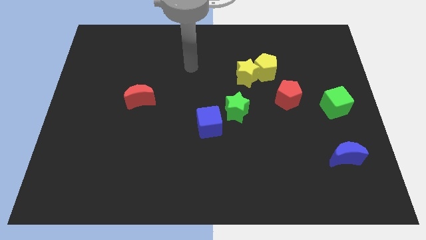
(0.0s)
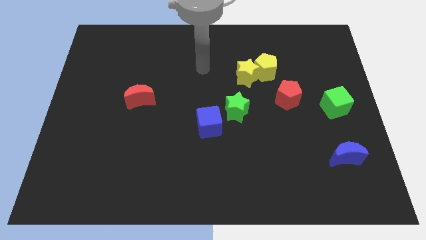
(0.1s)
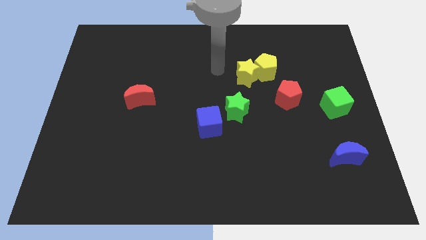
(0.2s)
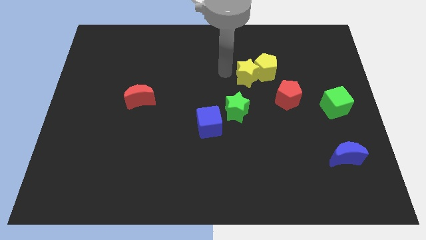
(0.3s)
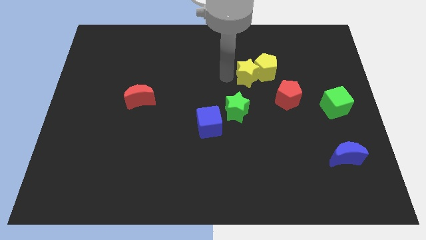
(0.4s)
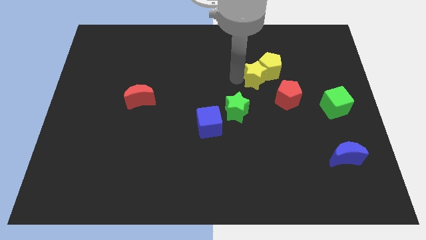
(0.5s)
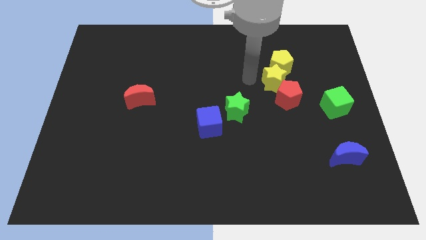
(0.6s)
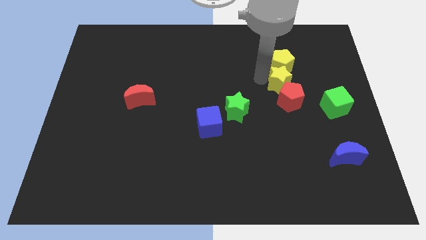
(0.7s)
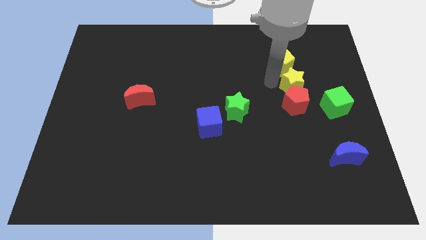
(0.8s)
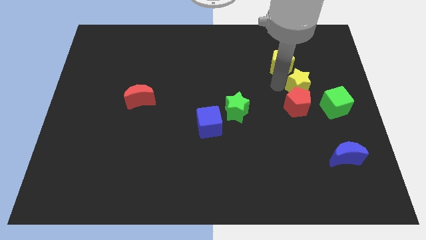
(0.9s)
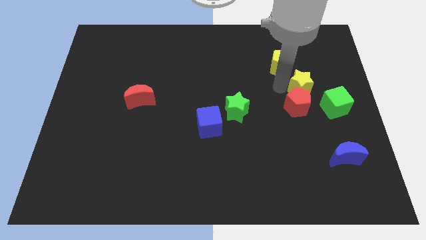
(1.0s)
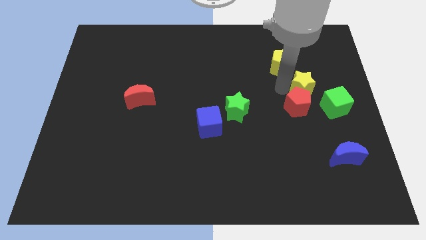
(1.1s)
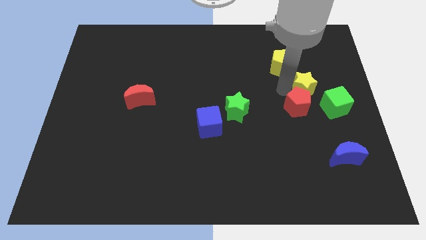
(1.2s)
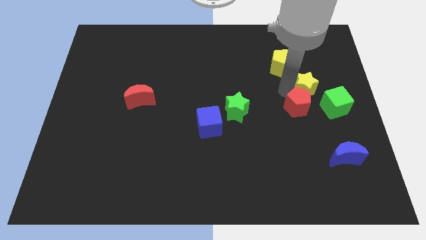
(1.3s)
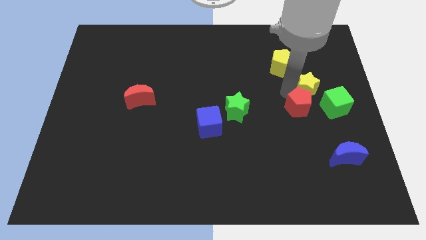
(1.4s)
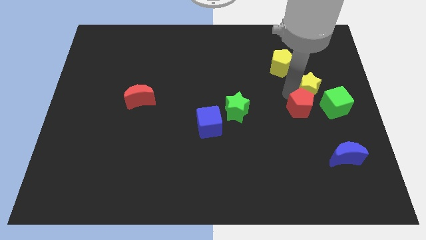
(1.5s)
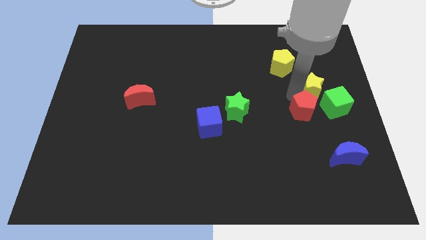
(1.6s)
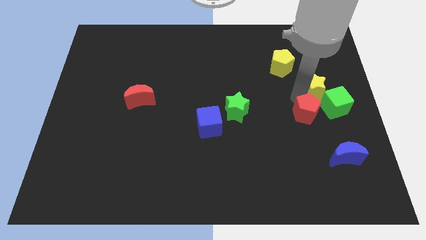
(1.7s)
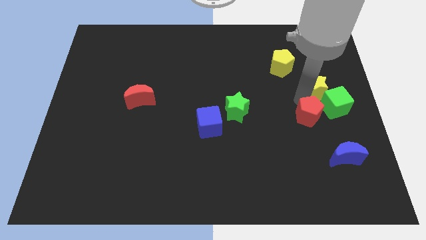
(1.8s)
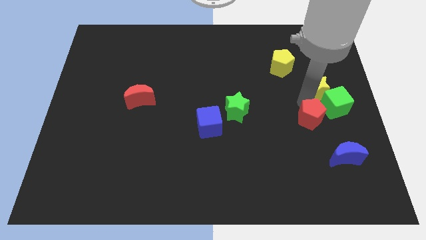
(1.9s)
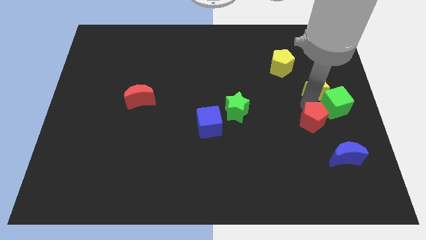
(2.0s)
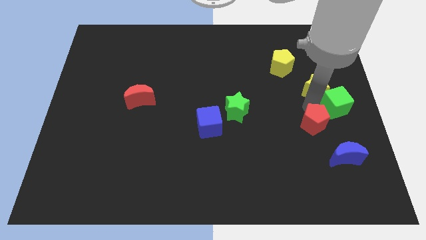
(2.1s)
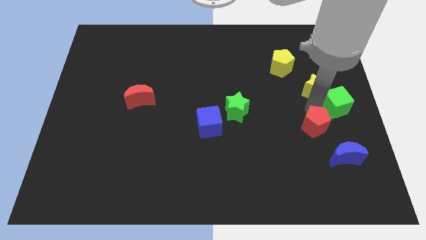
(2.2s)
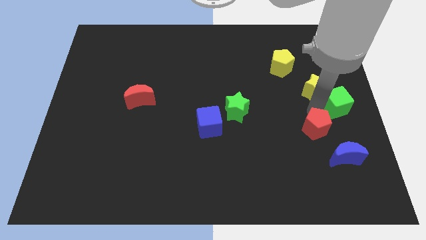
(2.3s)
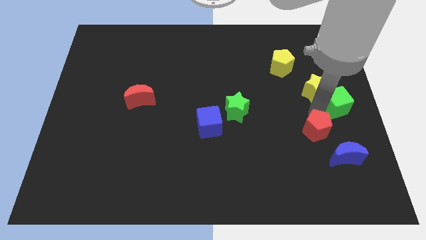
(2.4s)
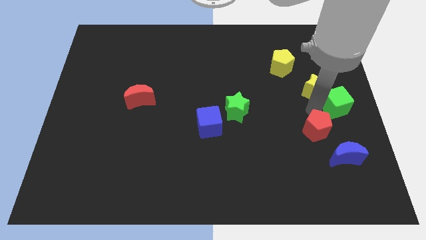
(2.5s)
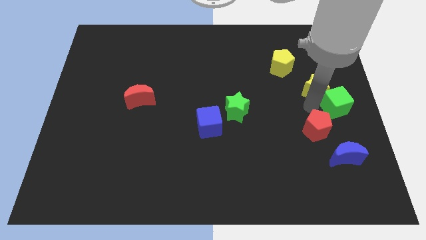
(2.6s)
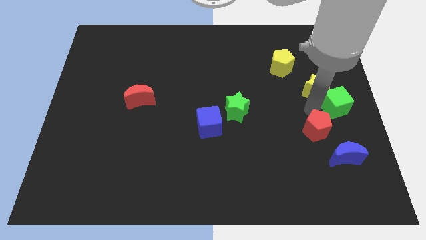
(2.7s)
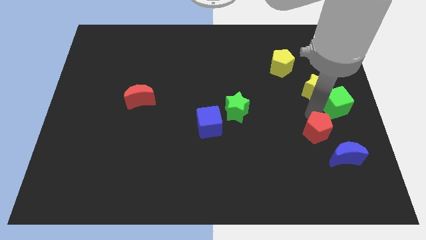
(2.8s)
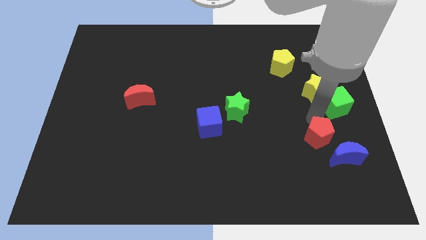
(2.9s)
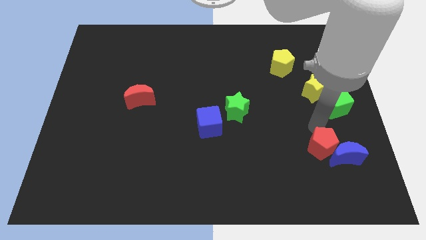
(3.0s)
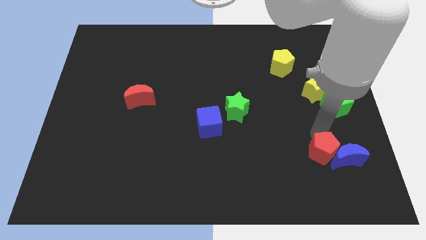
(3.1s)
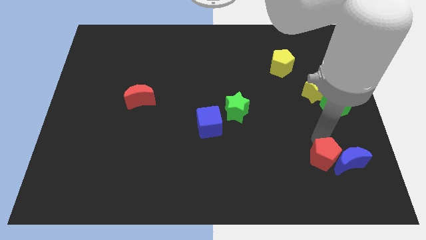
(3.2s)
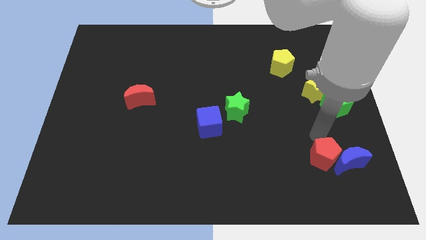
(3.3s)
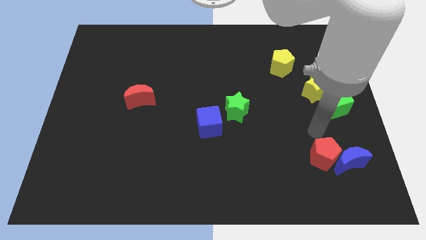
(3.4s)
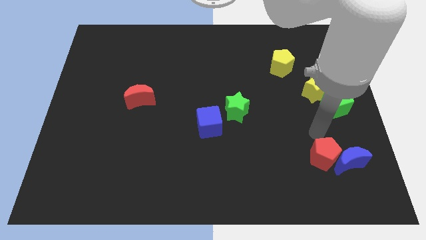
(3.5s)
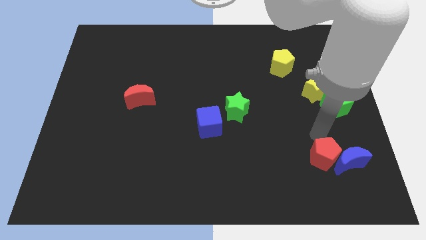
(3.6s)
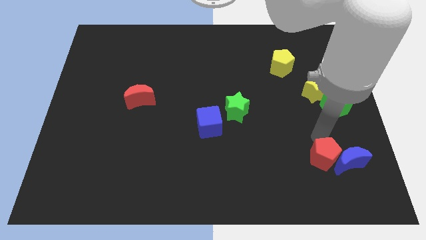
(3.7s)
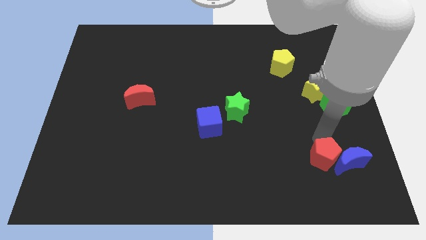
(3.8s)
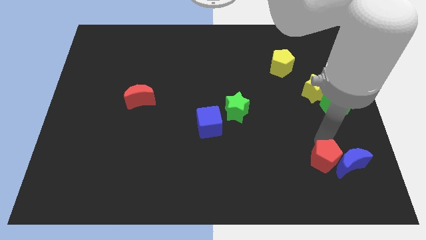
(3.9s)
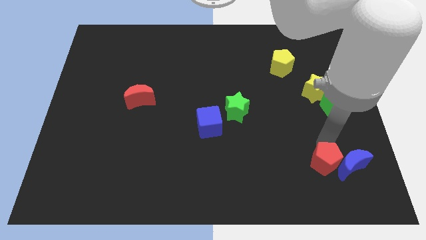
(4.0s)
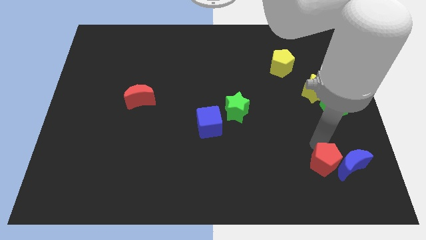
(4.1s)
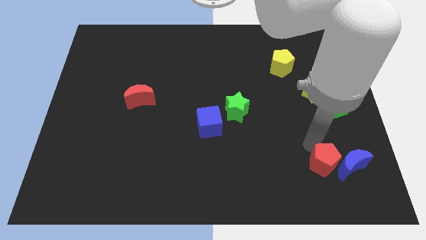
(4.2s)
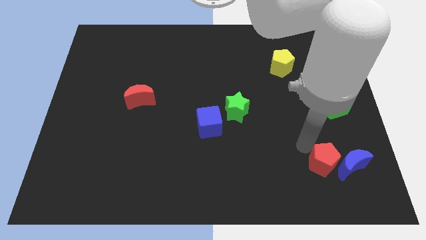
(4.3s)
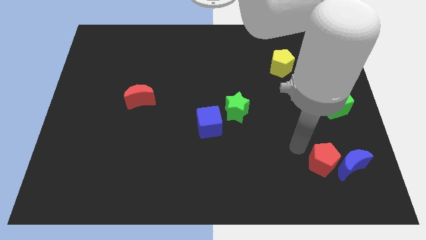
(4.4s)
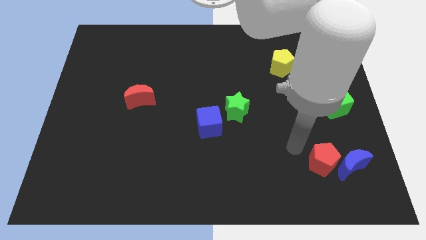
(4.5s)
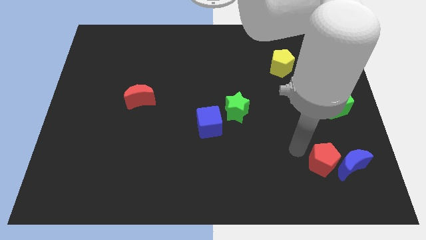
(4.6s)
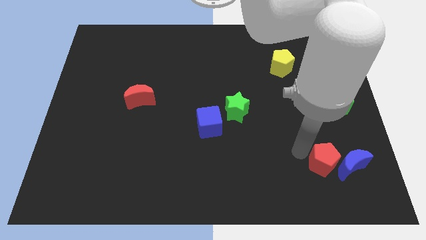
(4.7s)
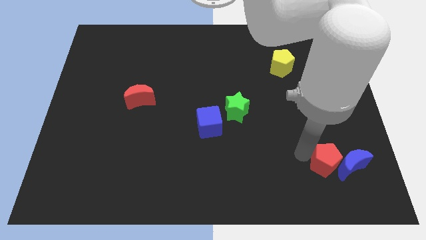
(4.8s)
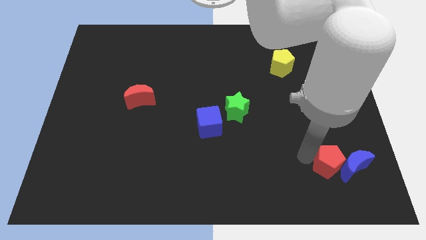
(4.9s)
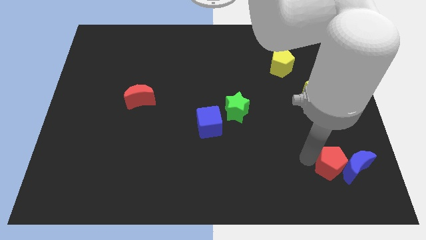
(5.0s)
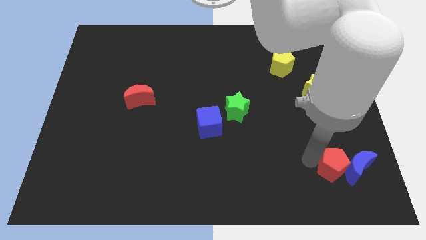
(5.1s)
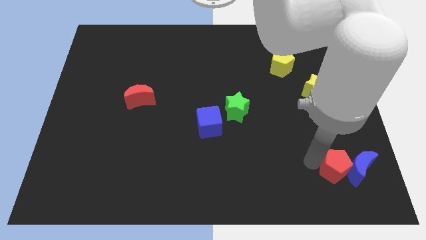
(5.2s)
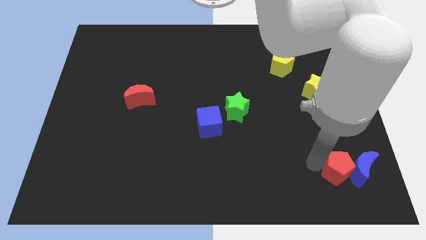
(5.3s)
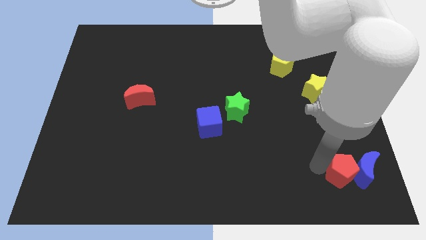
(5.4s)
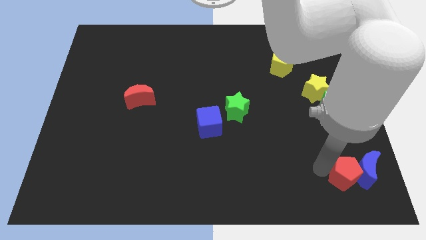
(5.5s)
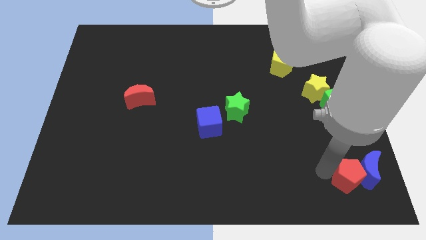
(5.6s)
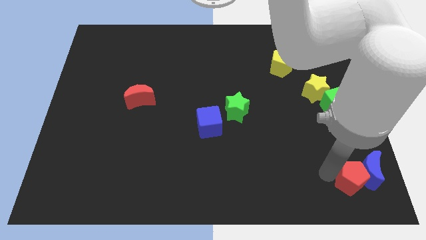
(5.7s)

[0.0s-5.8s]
put the red pentagon to the lower right corner
